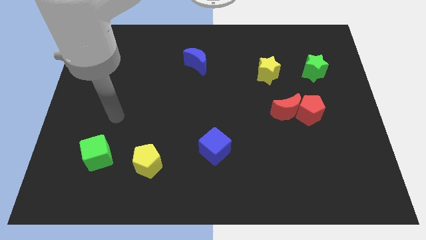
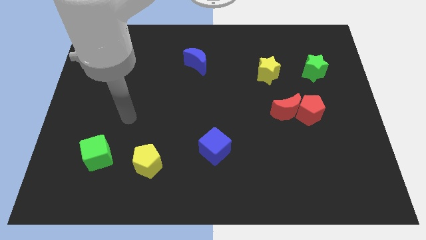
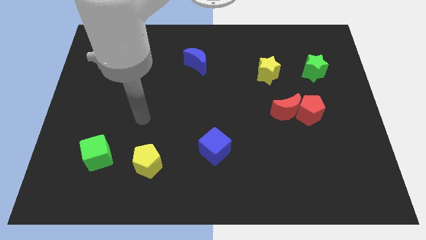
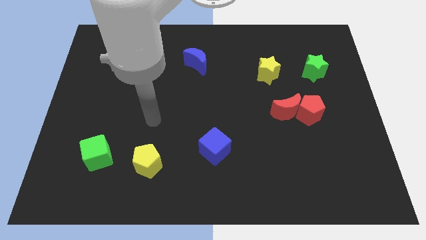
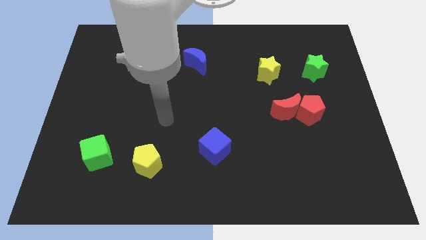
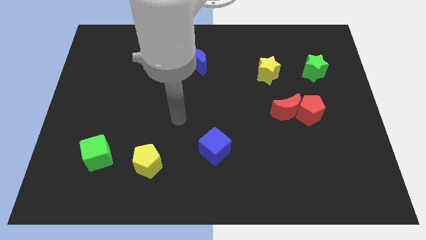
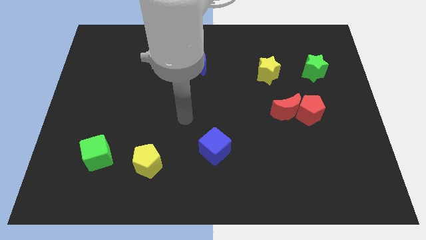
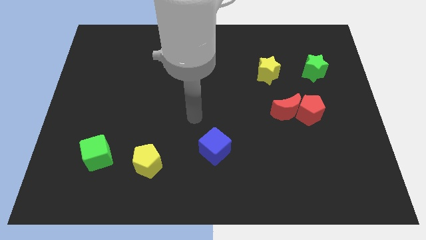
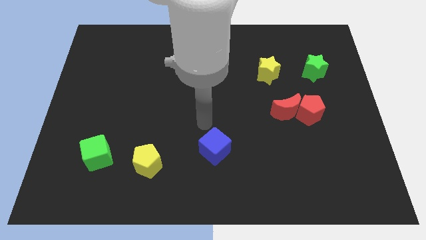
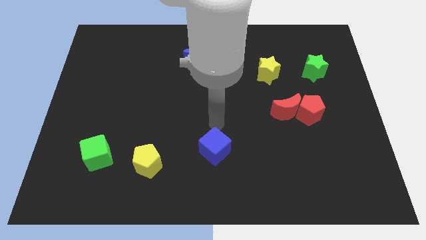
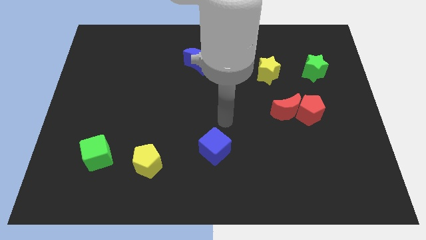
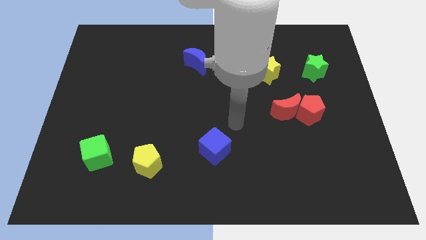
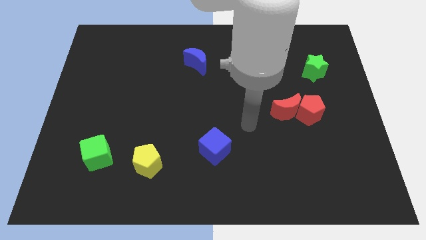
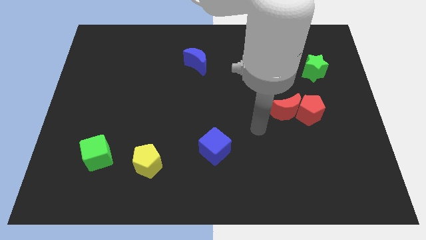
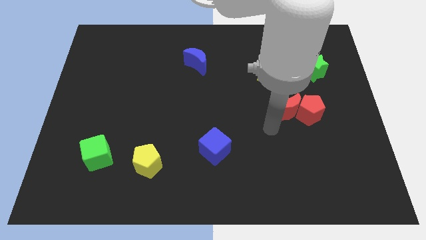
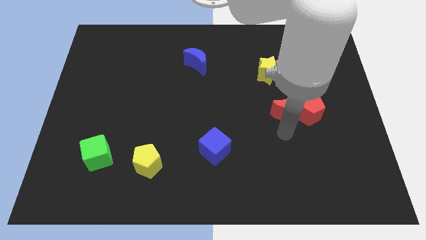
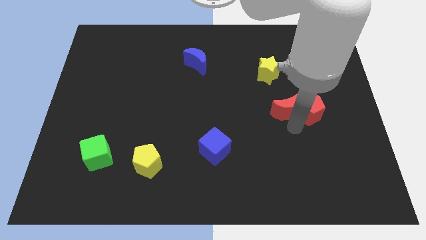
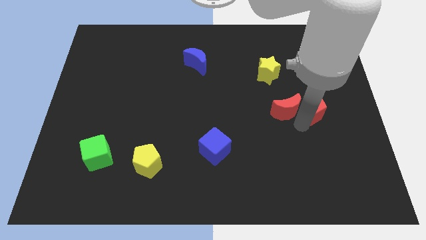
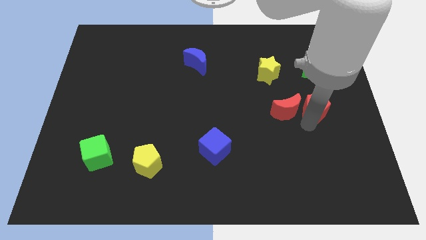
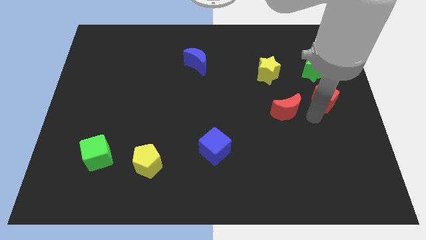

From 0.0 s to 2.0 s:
separate the red moon from the red pentagon

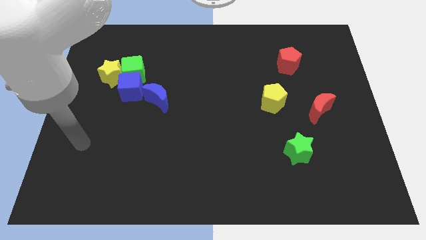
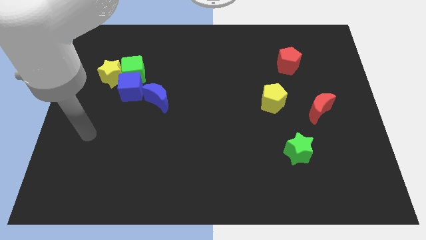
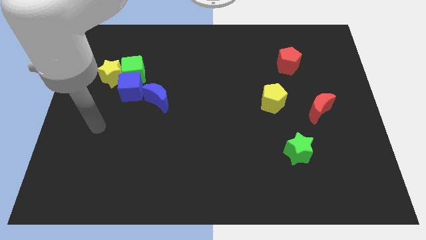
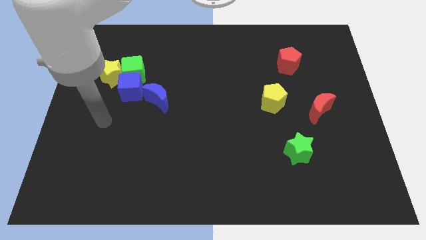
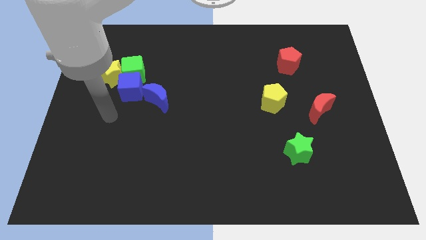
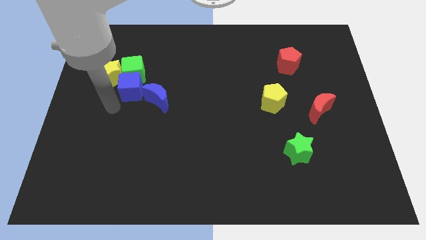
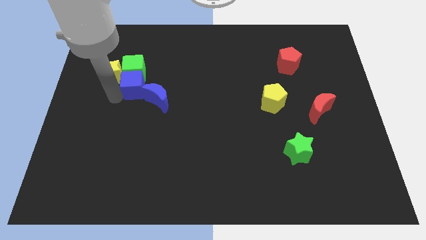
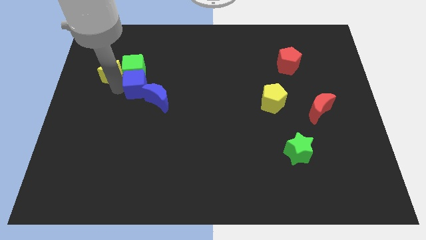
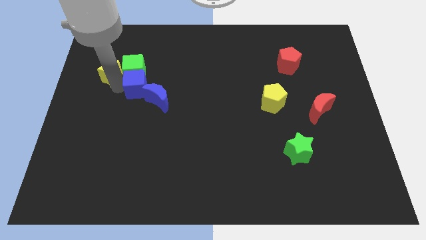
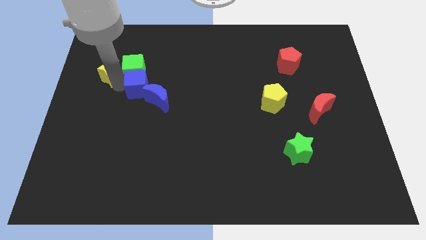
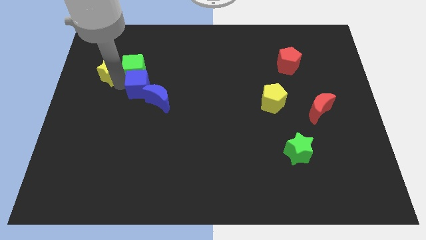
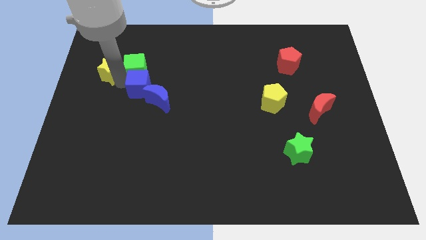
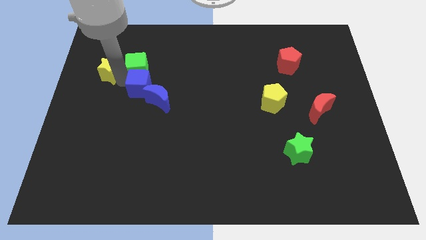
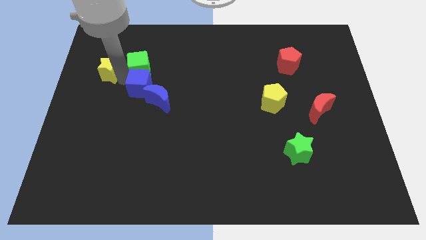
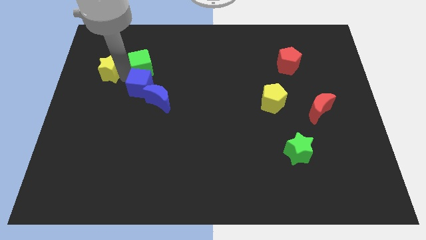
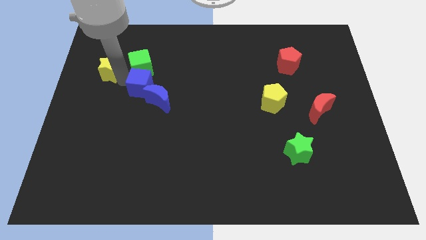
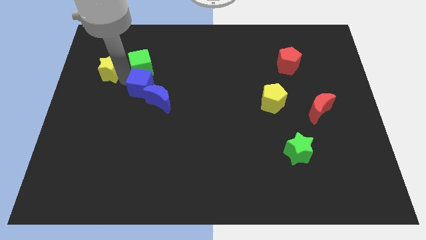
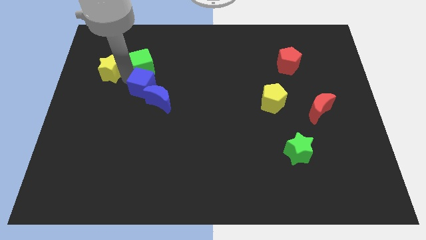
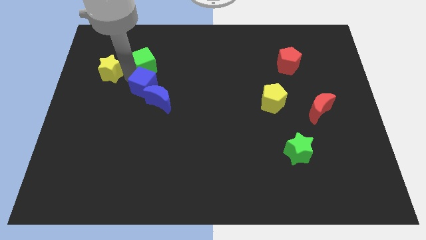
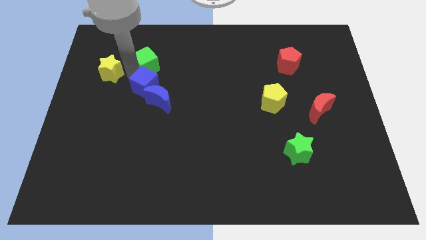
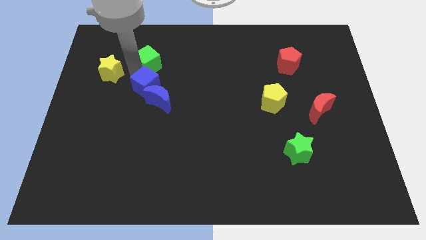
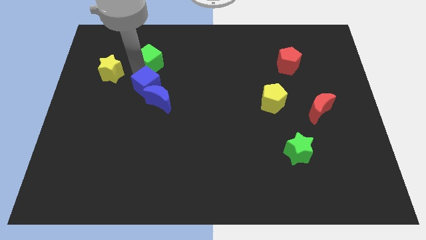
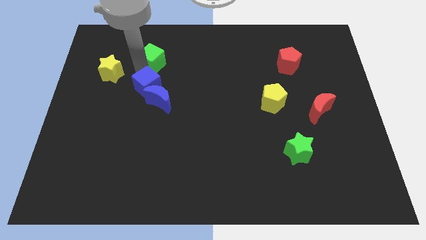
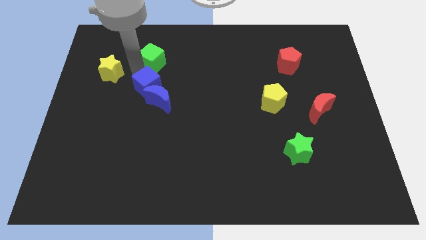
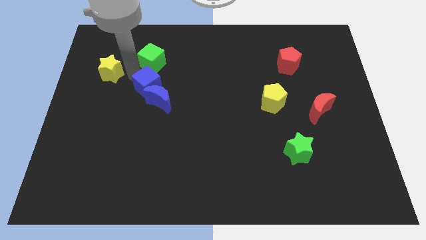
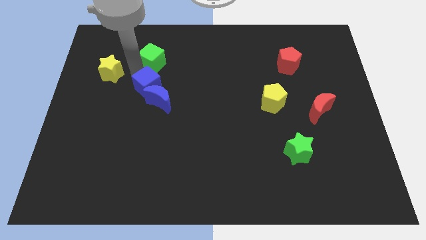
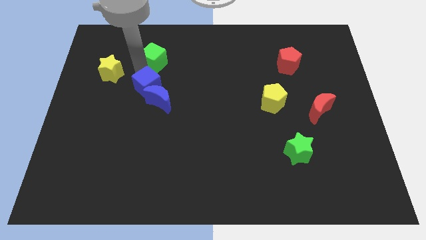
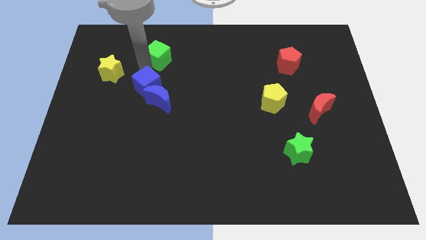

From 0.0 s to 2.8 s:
pull the green cube apart from the yellow star and blue cube

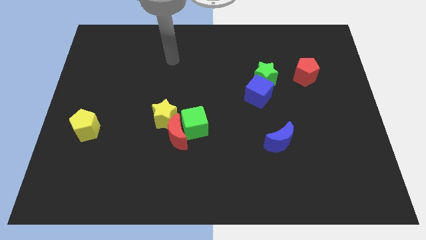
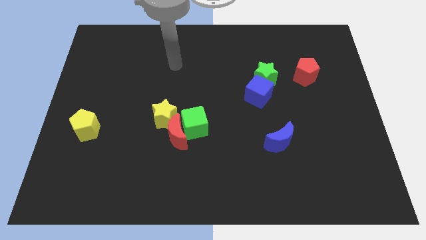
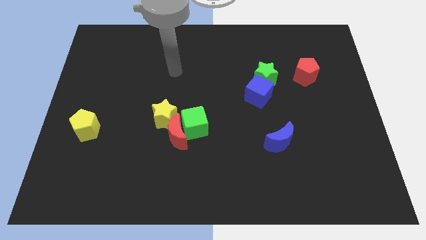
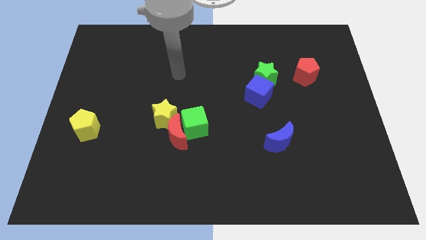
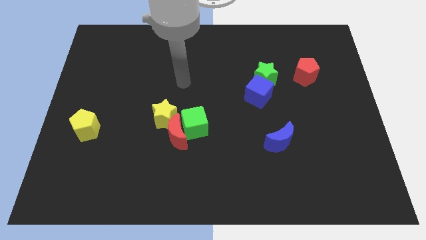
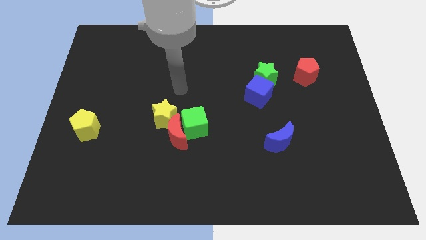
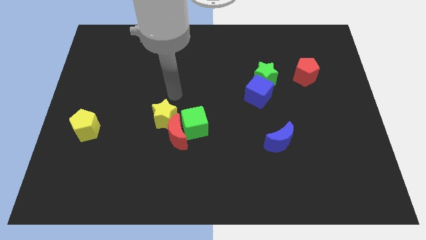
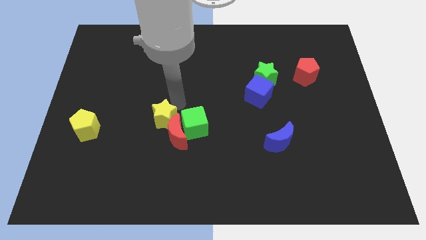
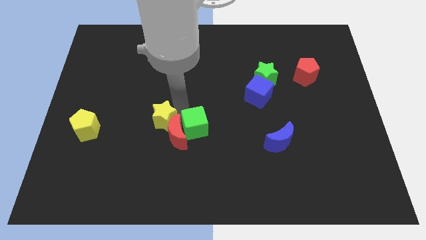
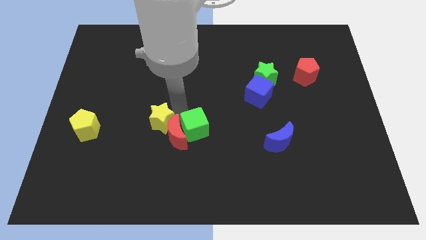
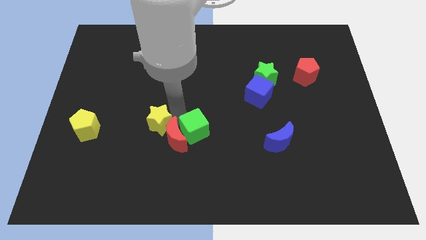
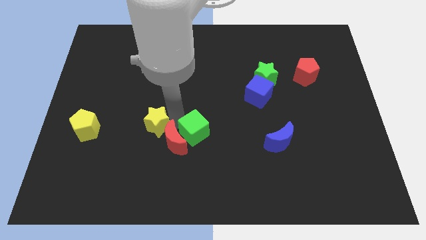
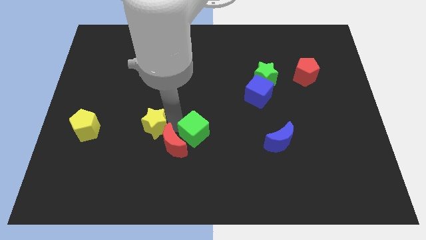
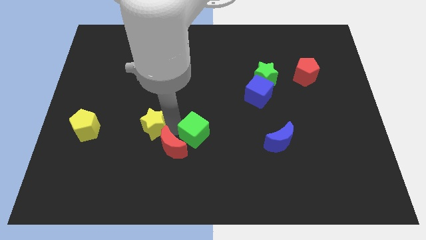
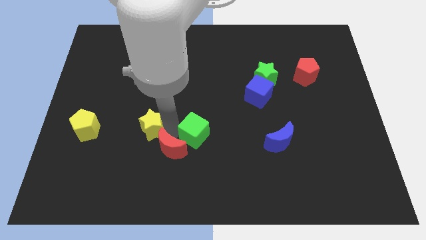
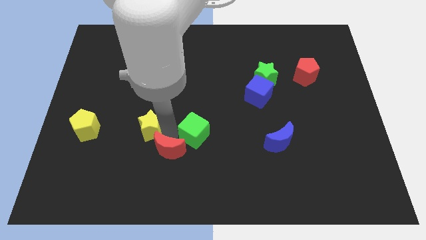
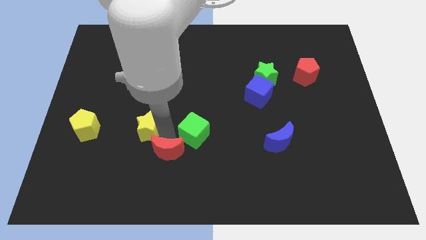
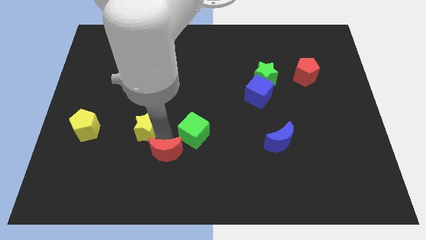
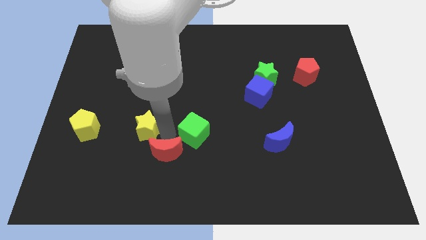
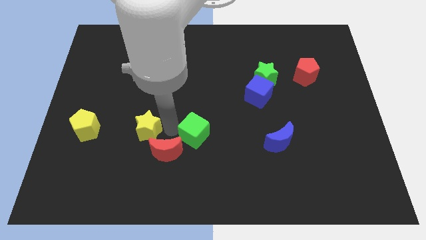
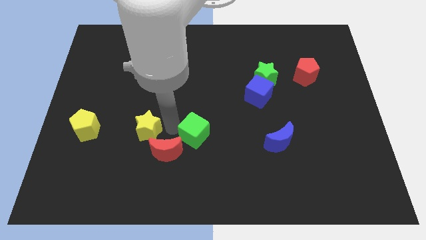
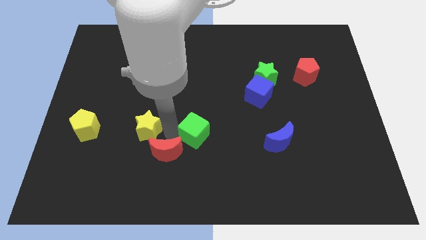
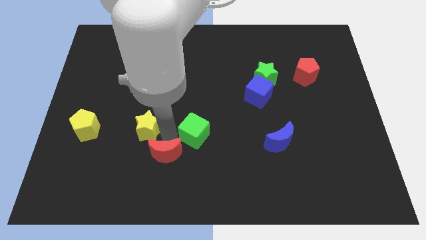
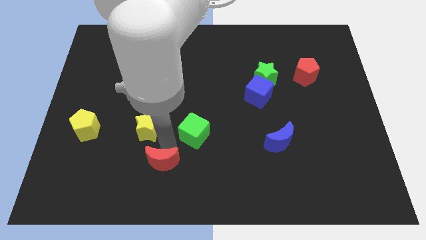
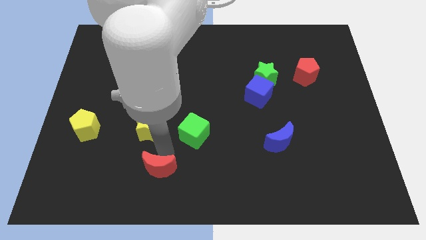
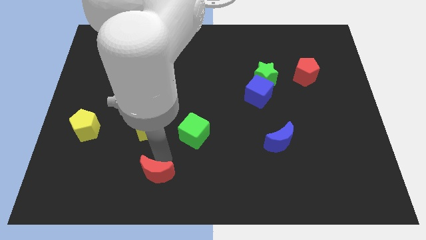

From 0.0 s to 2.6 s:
pull the red moon apart from the green cube and yellow star

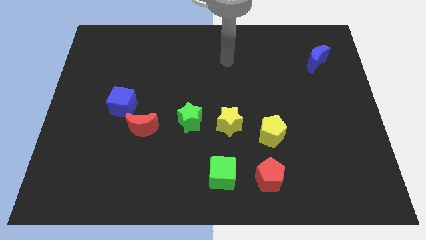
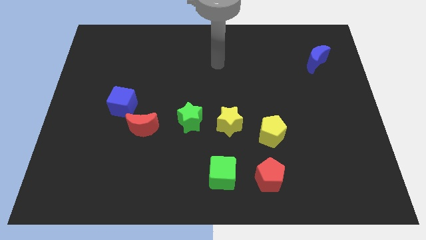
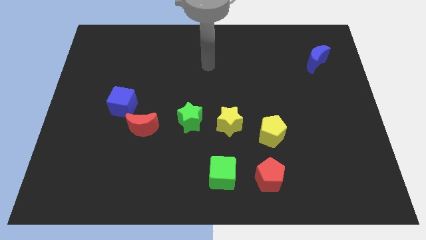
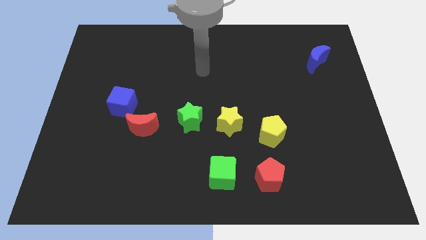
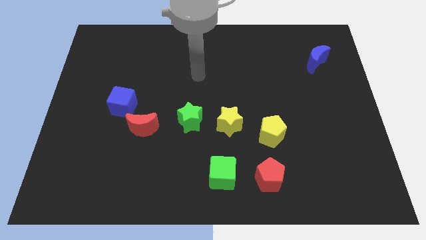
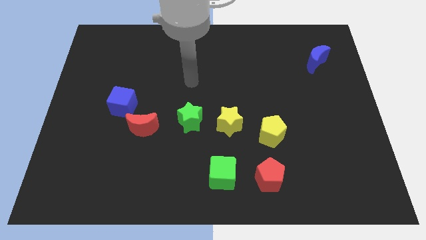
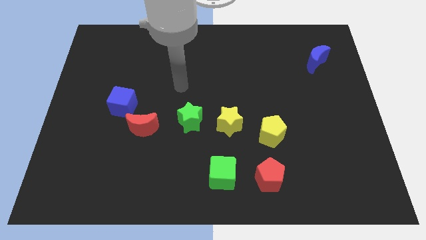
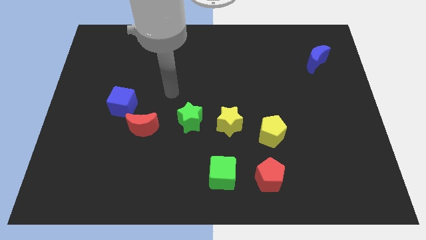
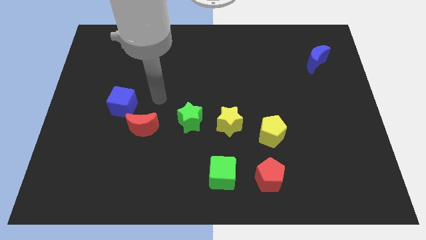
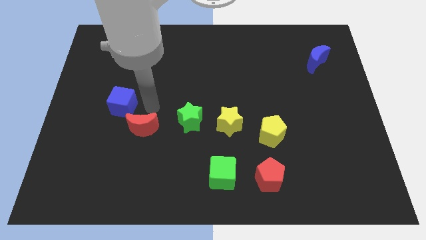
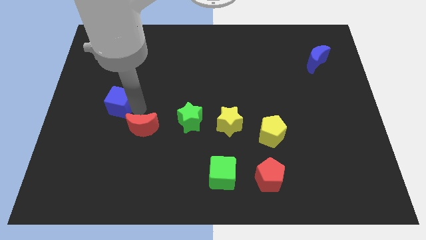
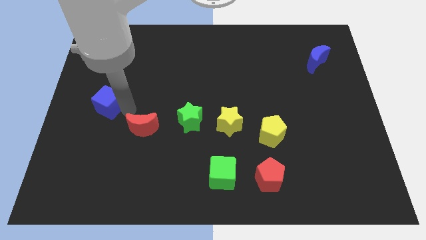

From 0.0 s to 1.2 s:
separate the red moon from the blue cube

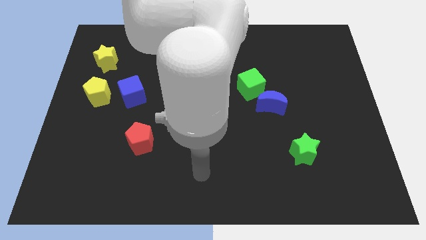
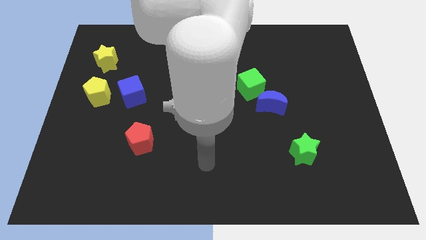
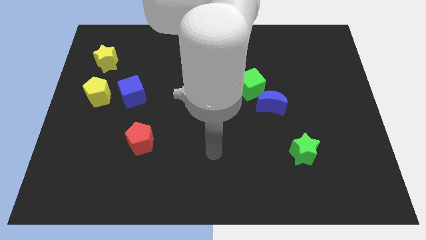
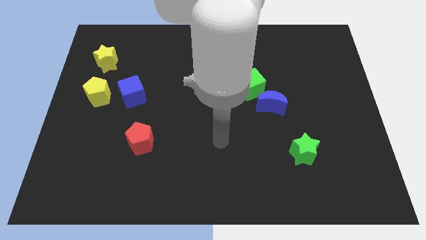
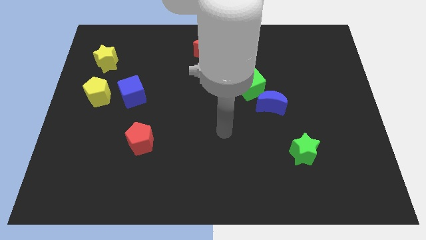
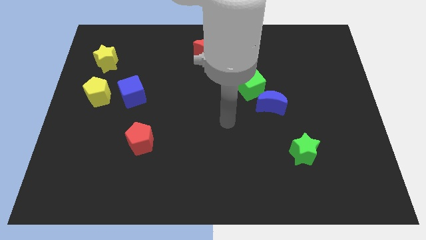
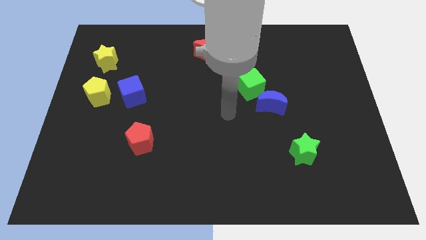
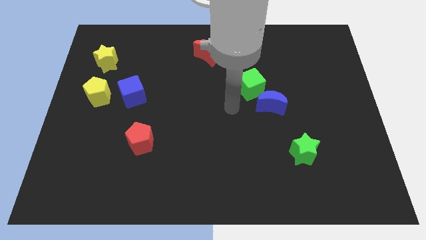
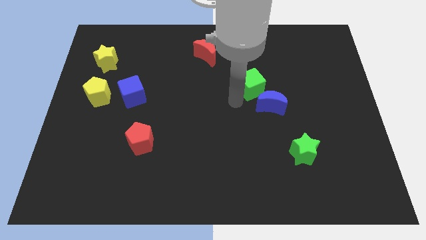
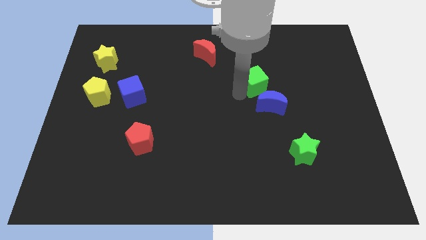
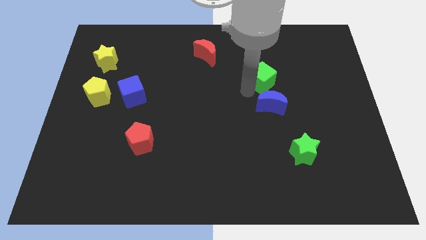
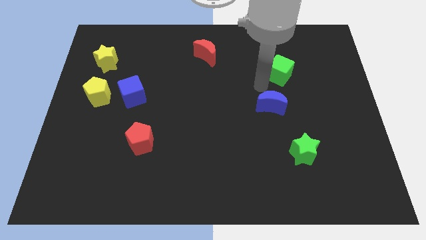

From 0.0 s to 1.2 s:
separate the blue moon from the green cube
